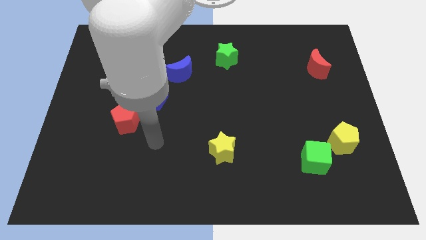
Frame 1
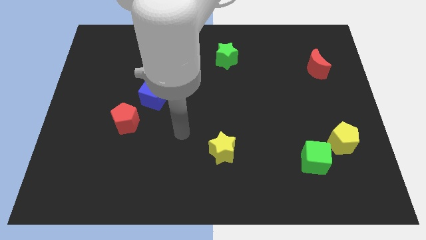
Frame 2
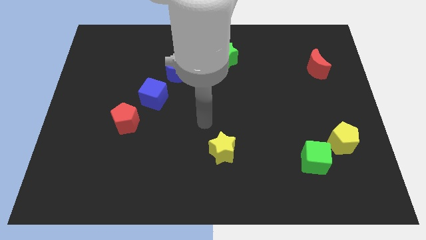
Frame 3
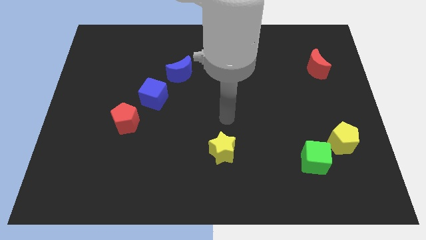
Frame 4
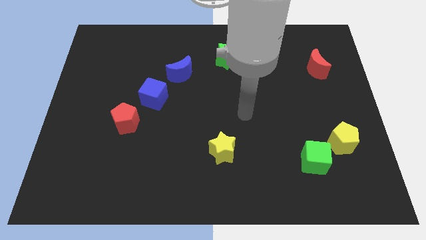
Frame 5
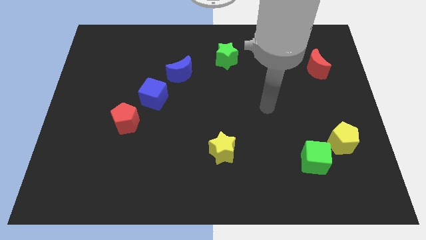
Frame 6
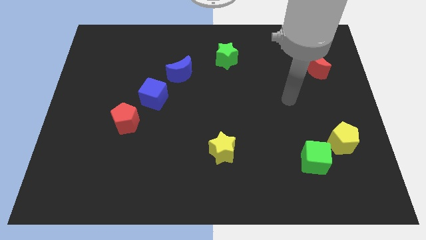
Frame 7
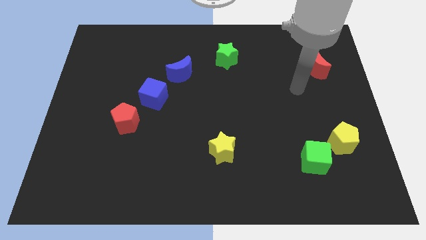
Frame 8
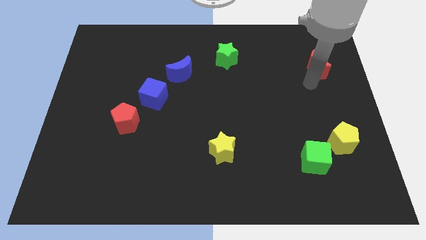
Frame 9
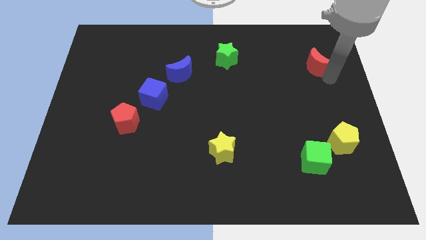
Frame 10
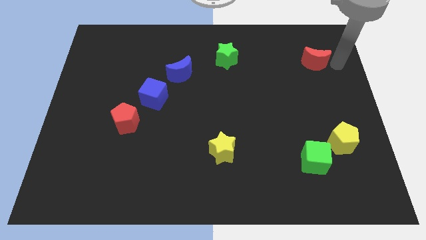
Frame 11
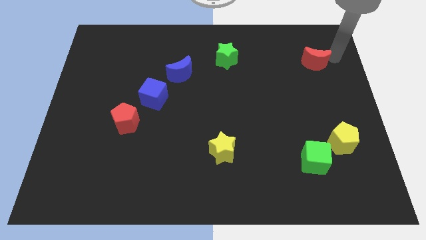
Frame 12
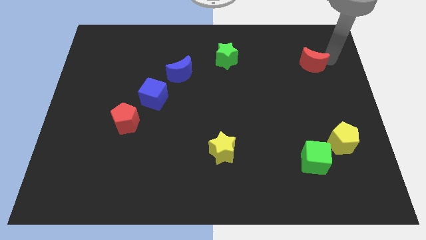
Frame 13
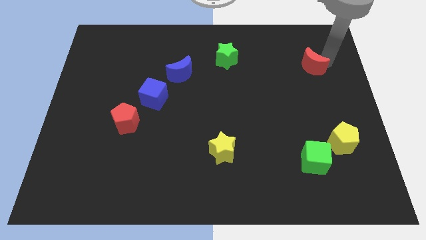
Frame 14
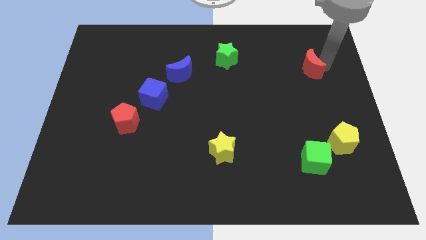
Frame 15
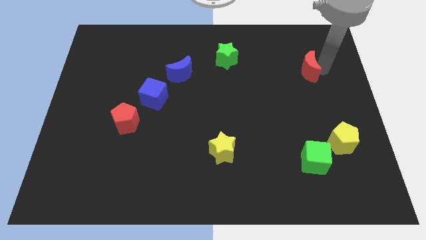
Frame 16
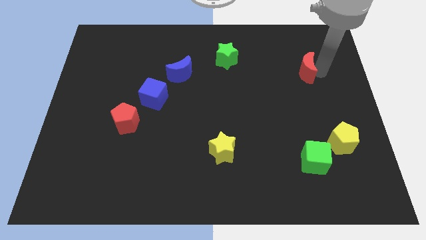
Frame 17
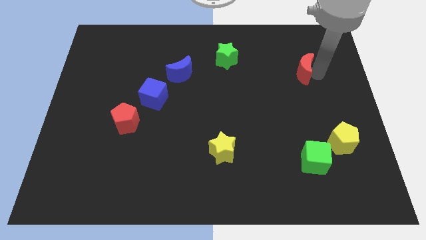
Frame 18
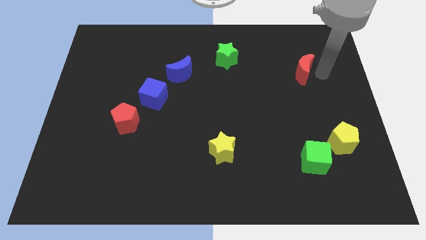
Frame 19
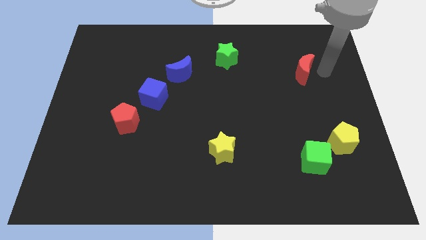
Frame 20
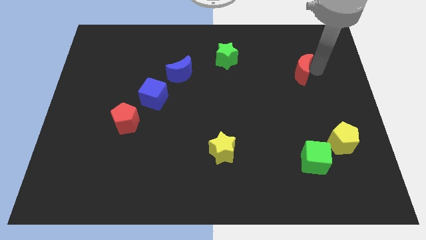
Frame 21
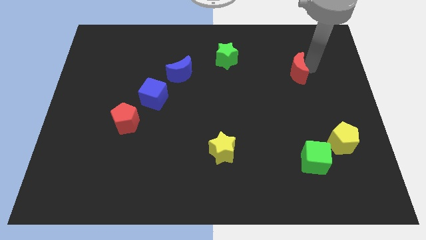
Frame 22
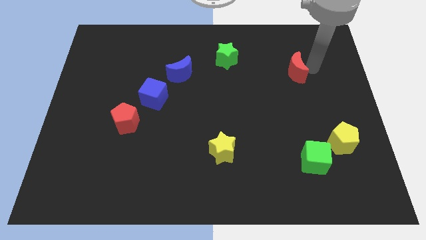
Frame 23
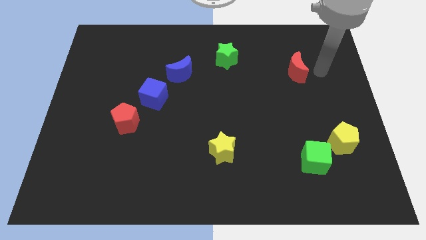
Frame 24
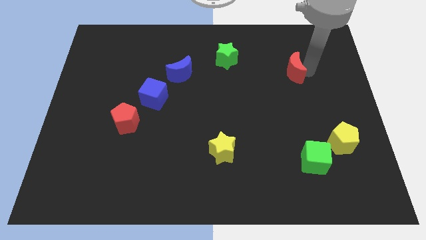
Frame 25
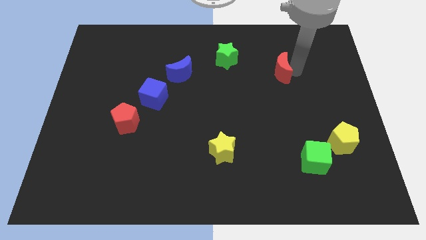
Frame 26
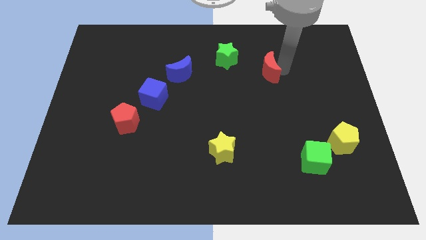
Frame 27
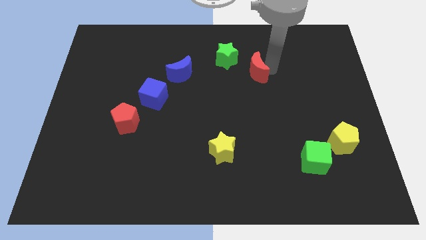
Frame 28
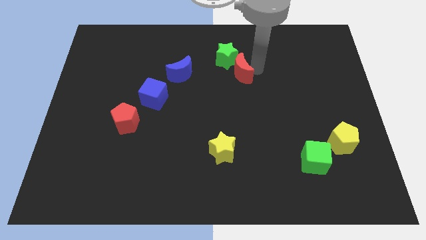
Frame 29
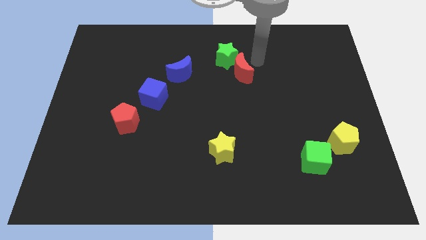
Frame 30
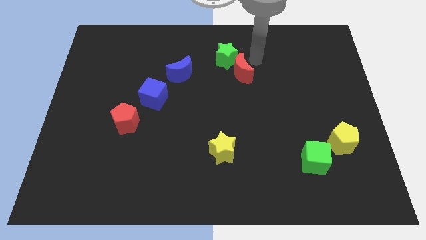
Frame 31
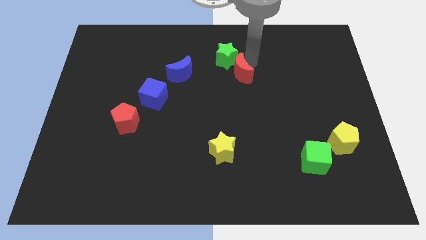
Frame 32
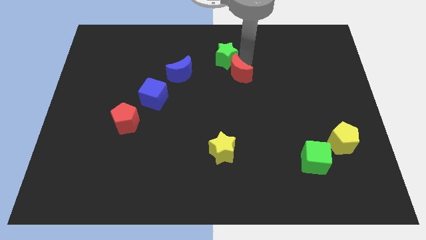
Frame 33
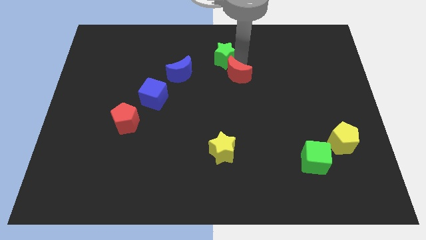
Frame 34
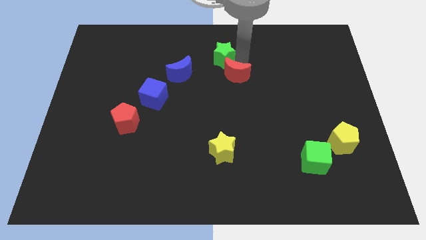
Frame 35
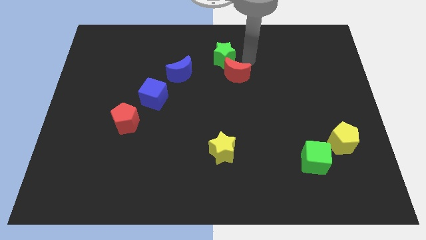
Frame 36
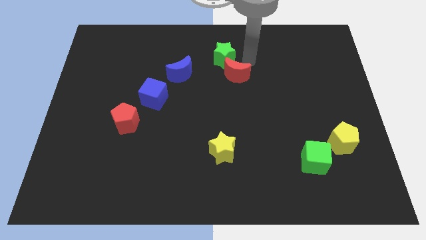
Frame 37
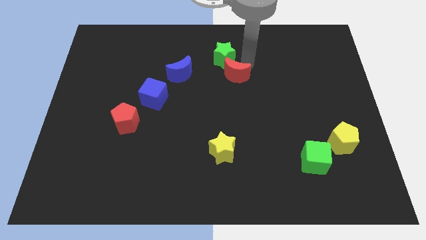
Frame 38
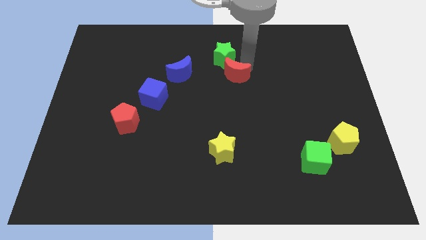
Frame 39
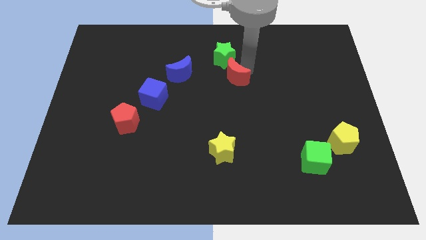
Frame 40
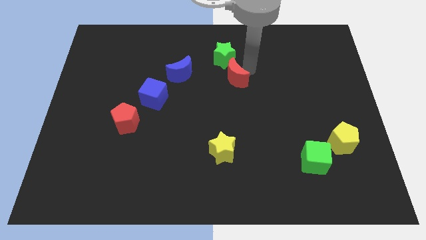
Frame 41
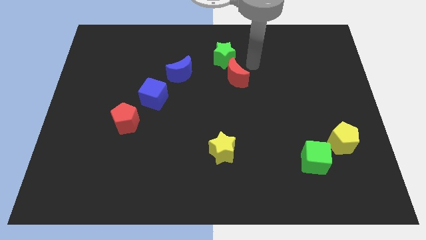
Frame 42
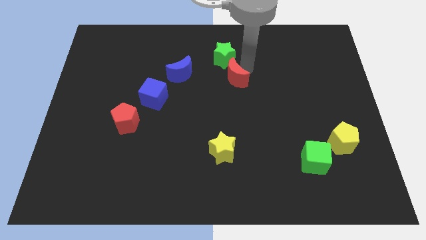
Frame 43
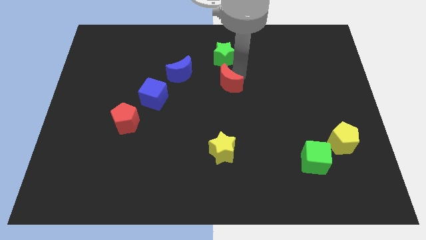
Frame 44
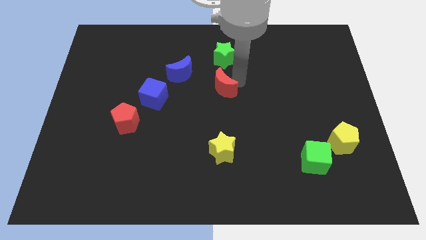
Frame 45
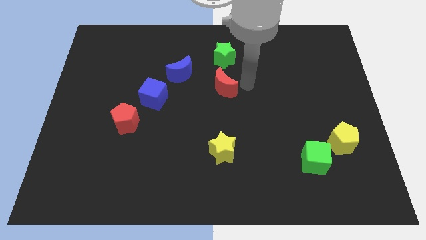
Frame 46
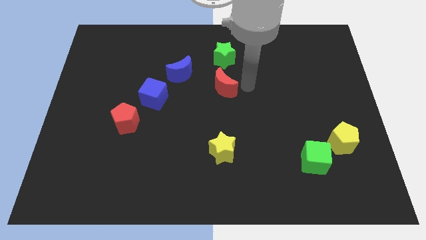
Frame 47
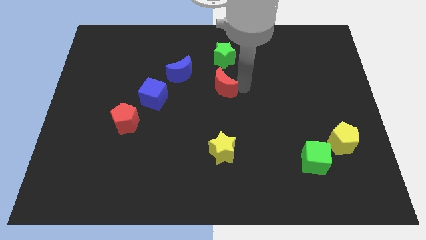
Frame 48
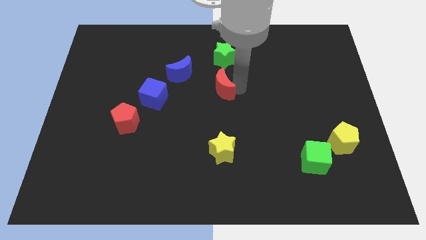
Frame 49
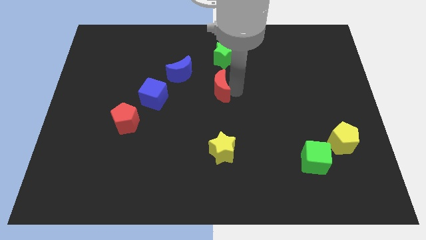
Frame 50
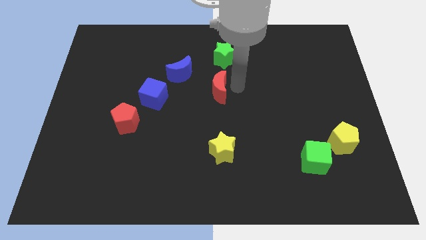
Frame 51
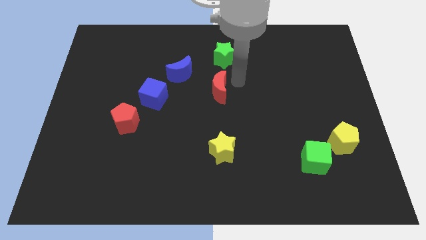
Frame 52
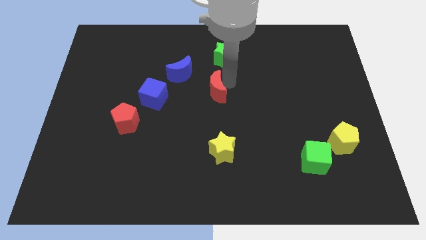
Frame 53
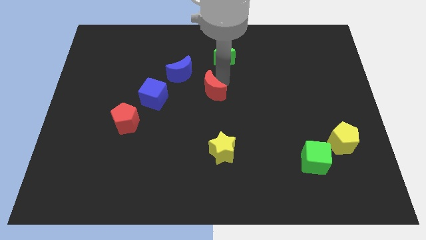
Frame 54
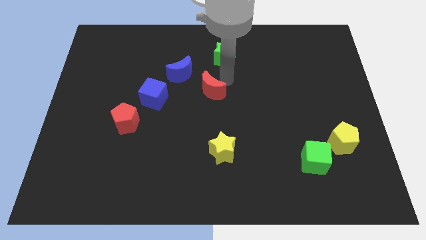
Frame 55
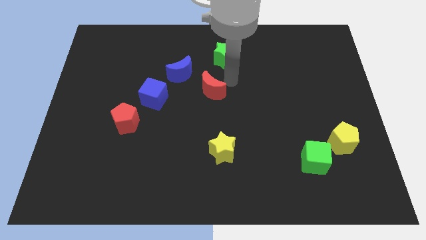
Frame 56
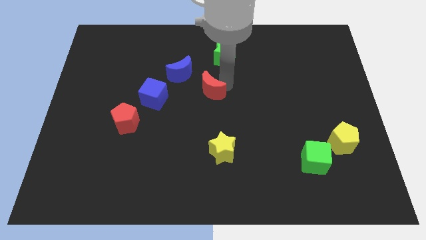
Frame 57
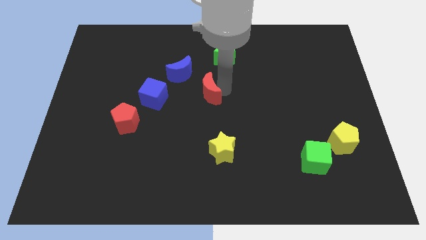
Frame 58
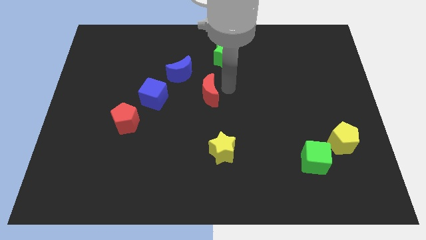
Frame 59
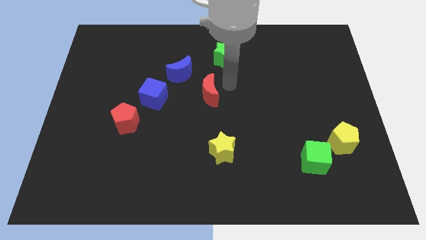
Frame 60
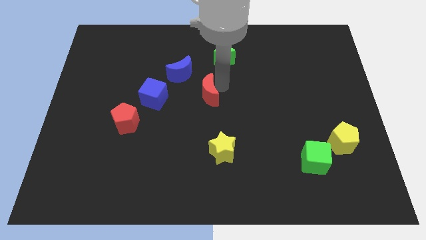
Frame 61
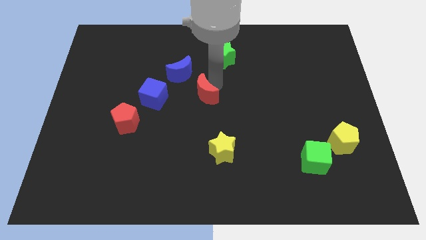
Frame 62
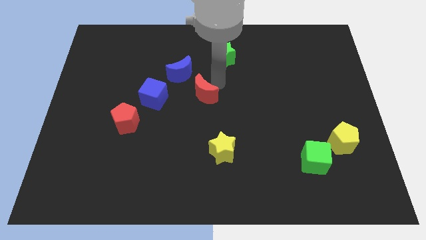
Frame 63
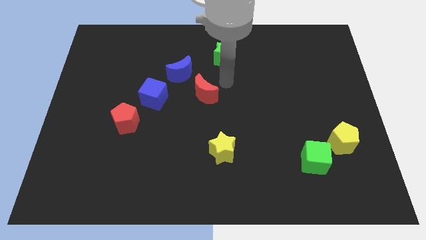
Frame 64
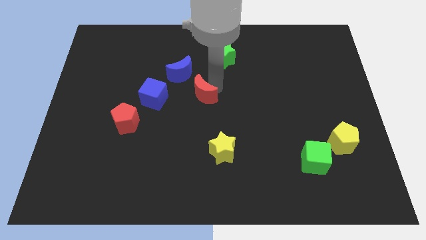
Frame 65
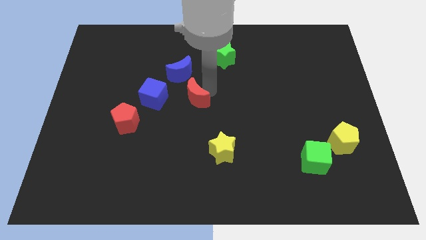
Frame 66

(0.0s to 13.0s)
put the red moon to the bottom of the blue moon

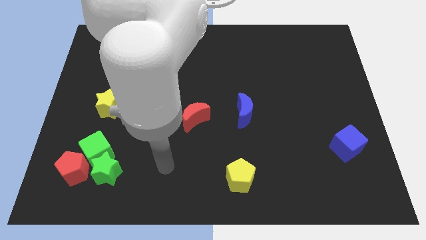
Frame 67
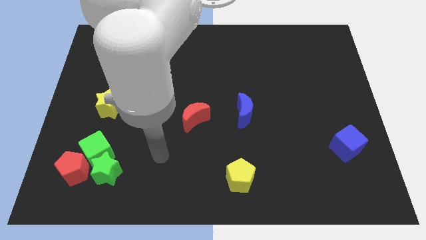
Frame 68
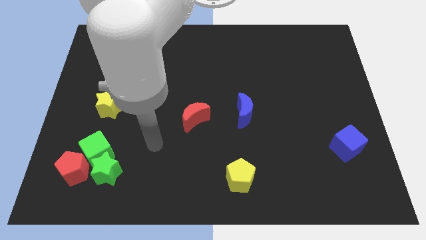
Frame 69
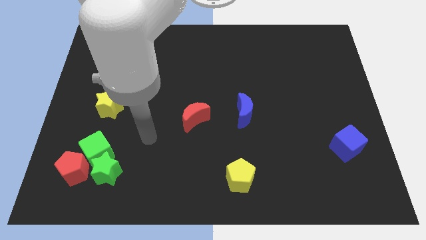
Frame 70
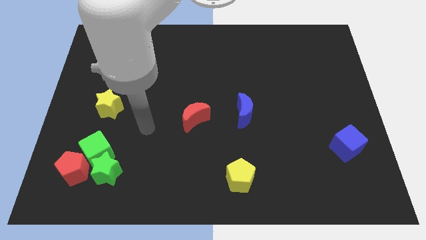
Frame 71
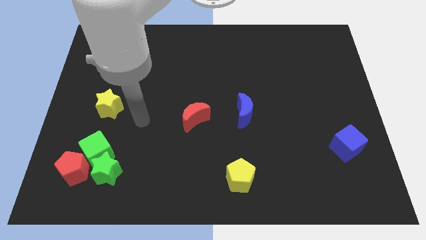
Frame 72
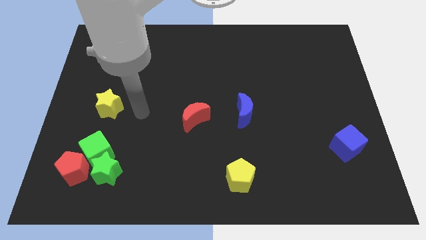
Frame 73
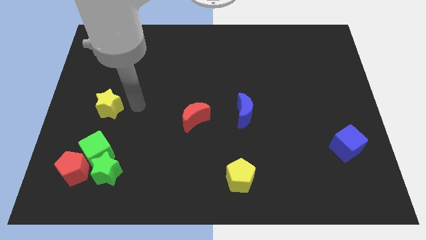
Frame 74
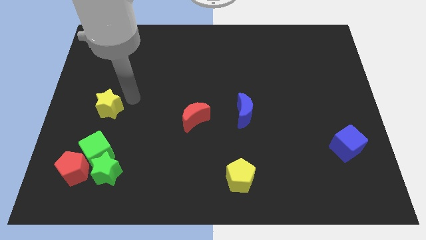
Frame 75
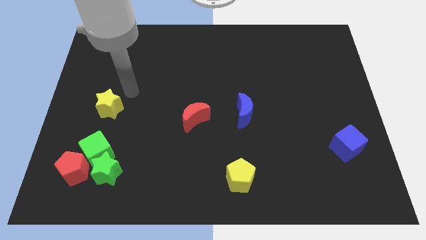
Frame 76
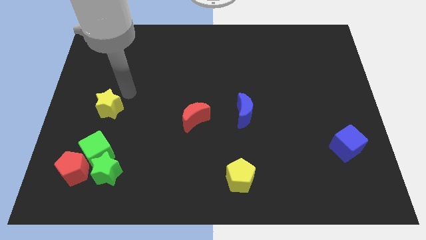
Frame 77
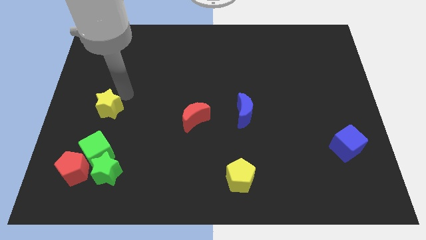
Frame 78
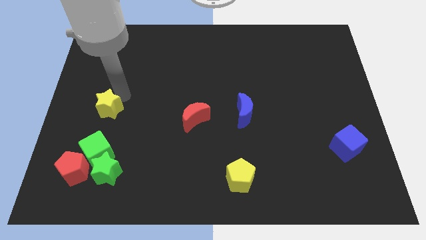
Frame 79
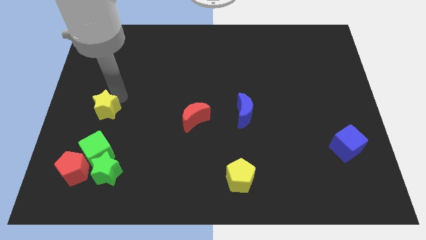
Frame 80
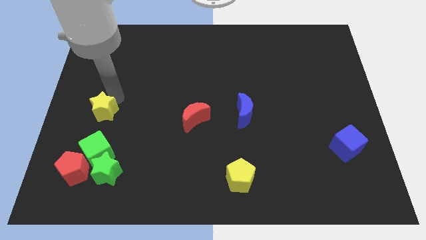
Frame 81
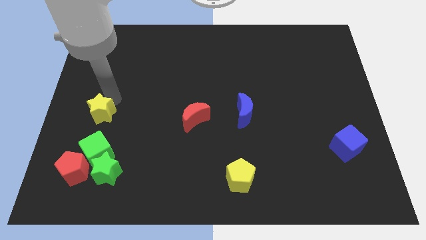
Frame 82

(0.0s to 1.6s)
push the yellow star above the red pentagon
